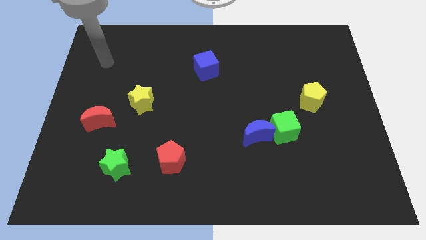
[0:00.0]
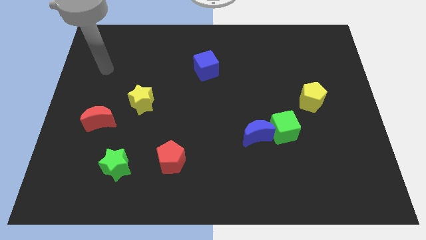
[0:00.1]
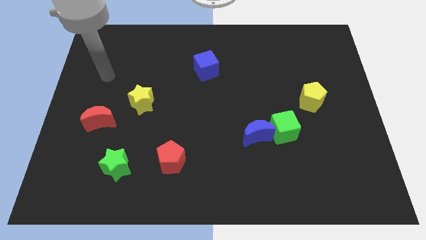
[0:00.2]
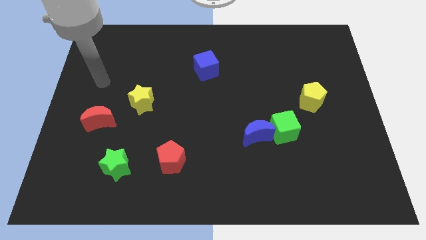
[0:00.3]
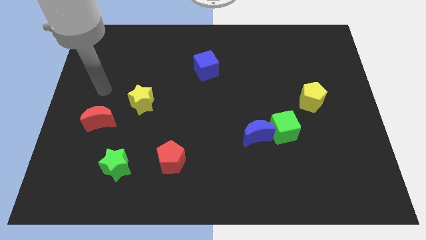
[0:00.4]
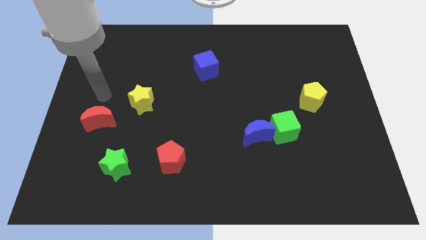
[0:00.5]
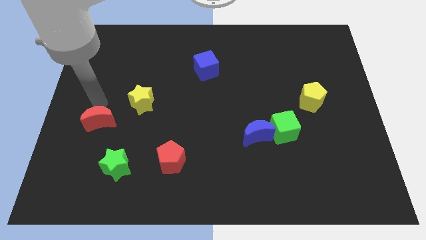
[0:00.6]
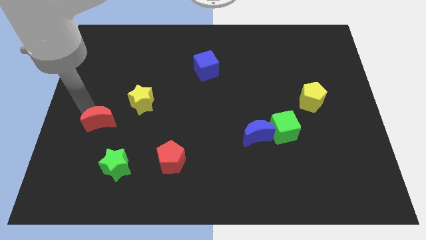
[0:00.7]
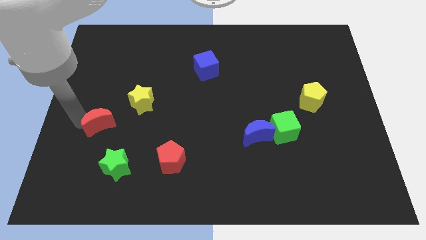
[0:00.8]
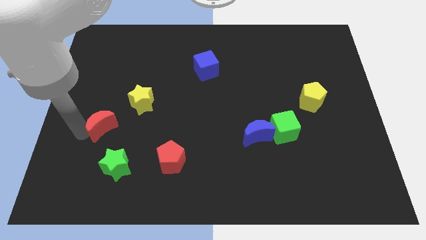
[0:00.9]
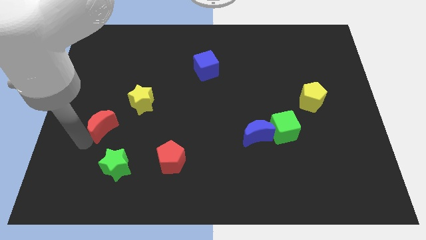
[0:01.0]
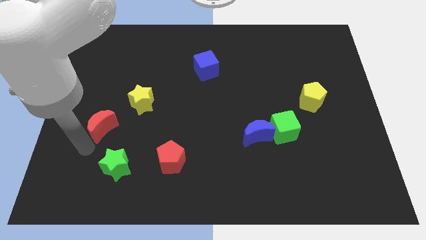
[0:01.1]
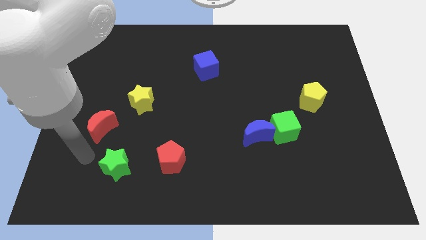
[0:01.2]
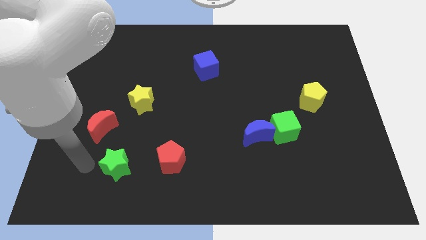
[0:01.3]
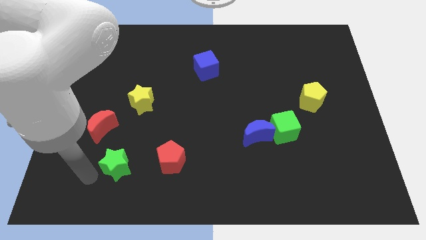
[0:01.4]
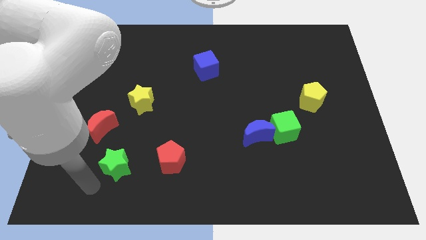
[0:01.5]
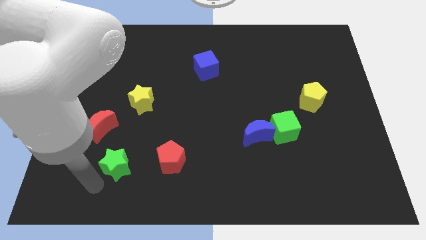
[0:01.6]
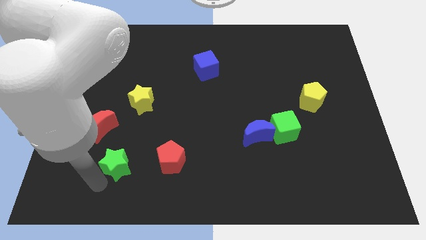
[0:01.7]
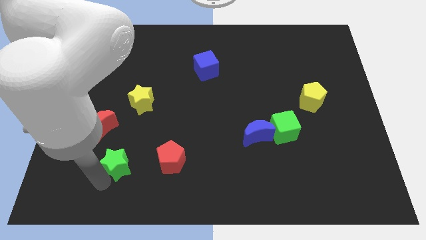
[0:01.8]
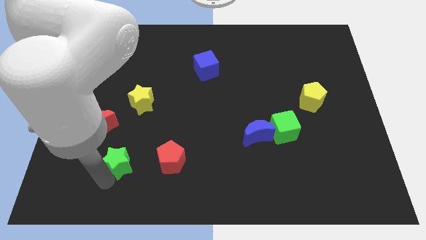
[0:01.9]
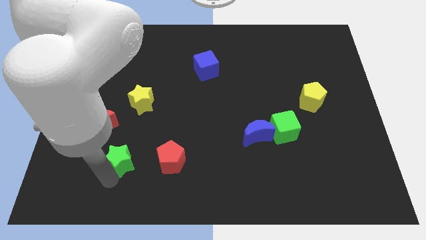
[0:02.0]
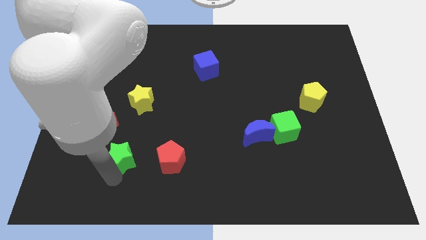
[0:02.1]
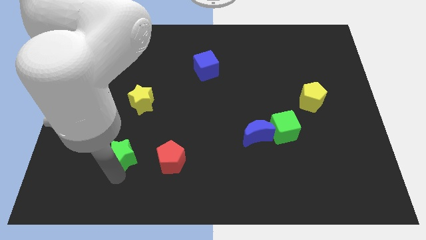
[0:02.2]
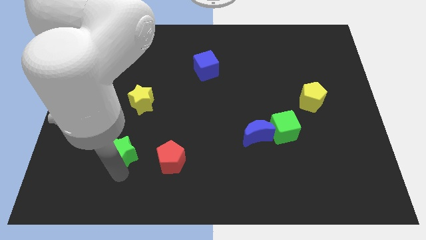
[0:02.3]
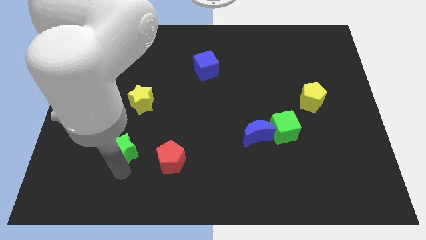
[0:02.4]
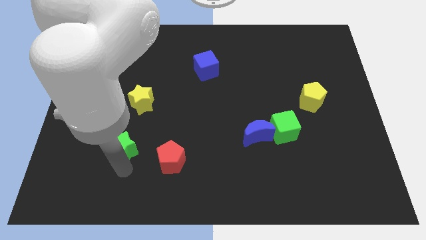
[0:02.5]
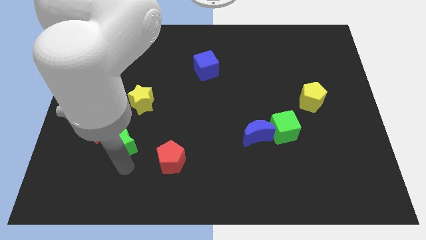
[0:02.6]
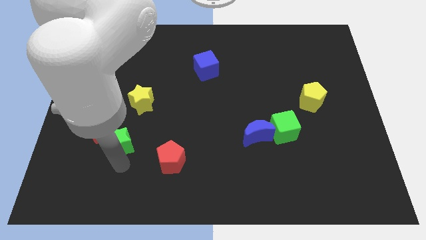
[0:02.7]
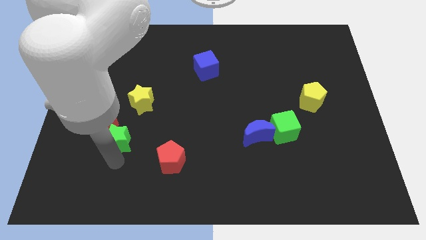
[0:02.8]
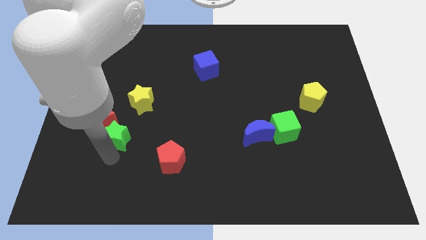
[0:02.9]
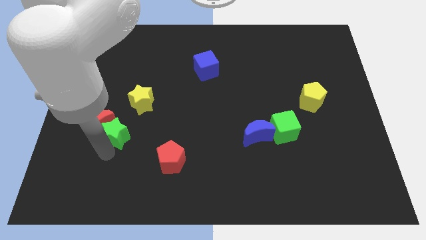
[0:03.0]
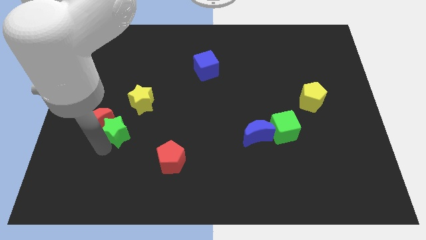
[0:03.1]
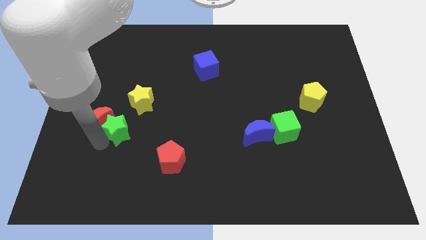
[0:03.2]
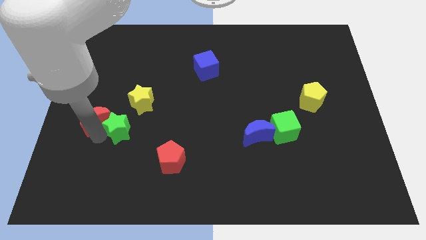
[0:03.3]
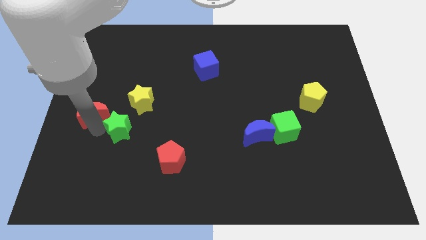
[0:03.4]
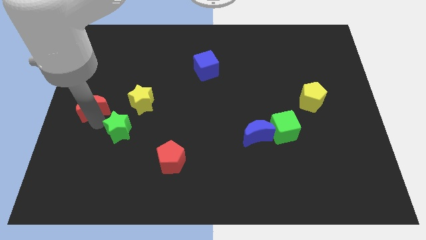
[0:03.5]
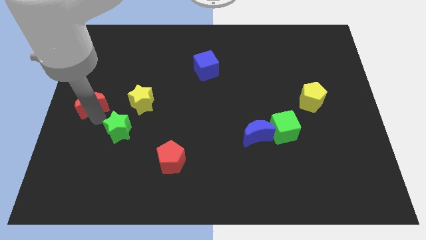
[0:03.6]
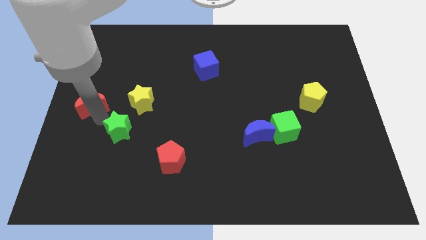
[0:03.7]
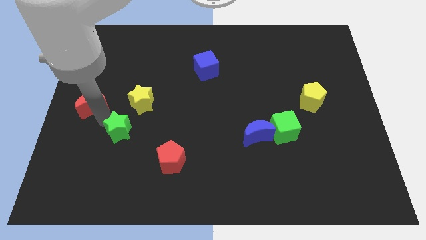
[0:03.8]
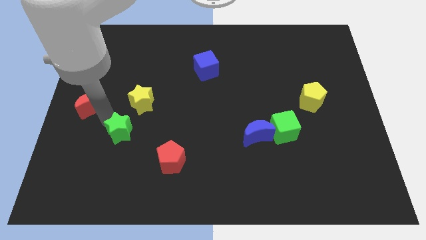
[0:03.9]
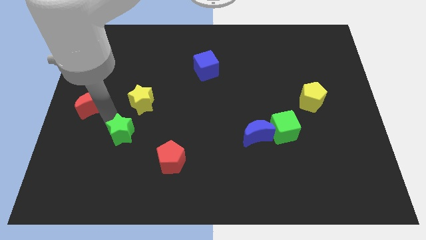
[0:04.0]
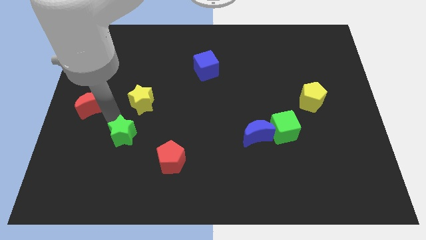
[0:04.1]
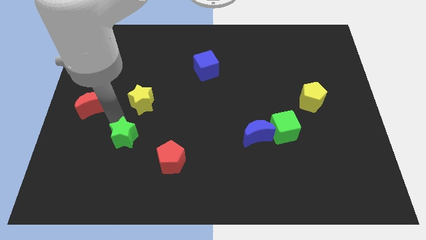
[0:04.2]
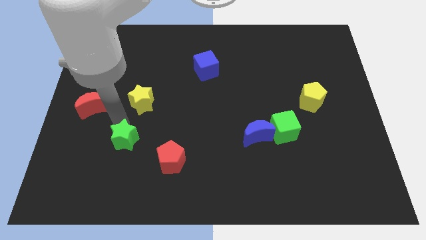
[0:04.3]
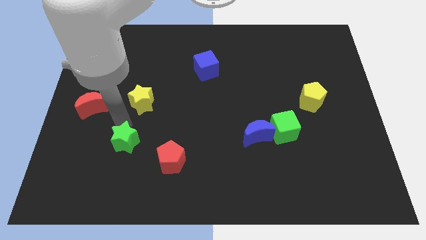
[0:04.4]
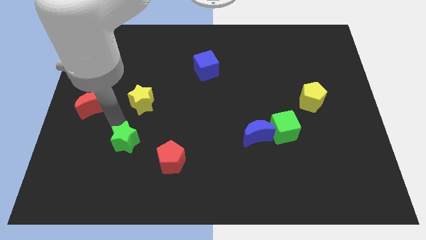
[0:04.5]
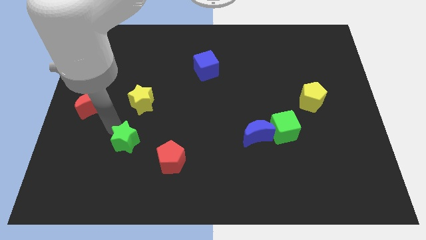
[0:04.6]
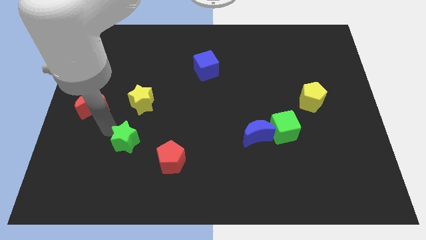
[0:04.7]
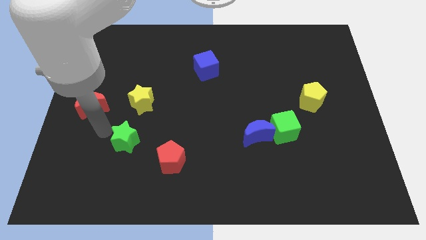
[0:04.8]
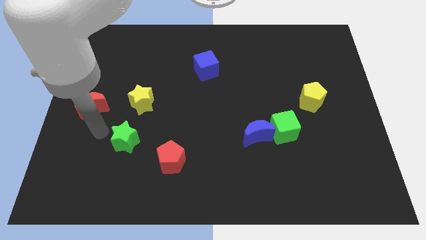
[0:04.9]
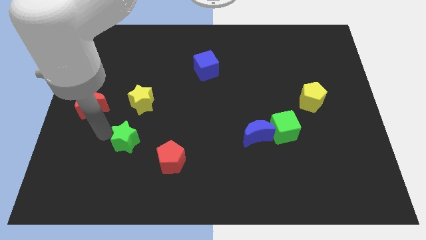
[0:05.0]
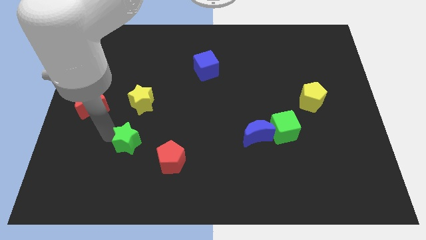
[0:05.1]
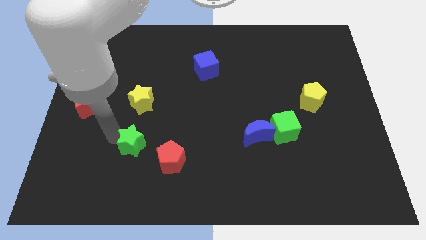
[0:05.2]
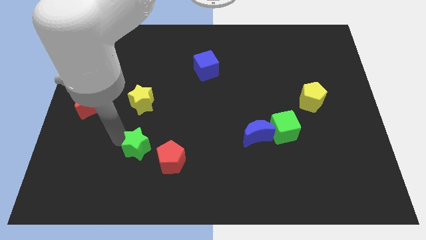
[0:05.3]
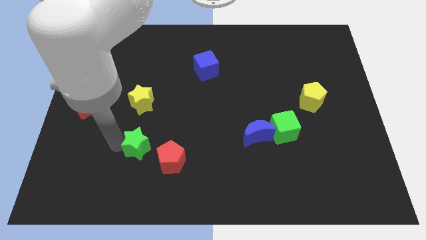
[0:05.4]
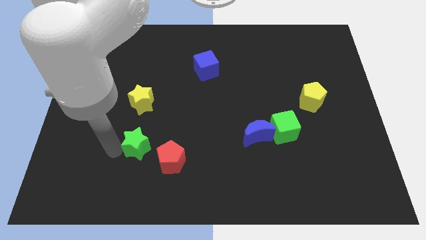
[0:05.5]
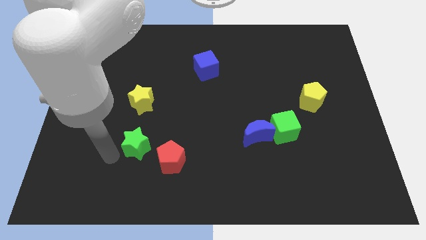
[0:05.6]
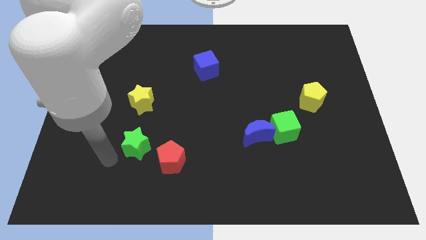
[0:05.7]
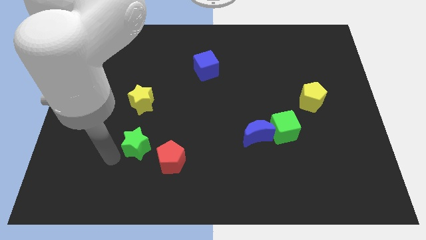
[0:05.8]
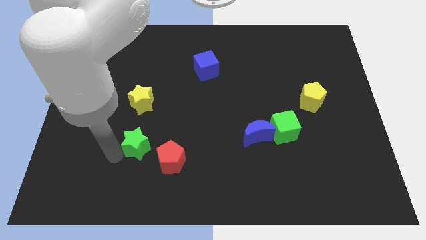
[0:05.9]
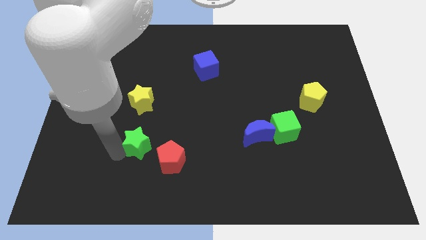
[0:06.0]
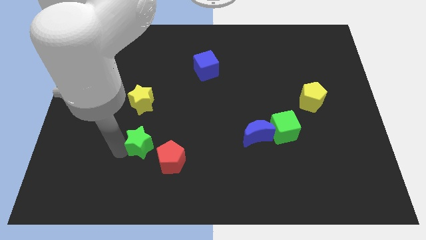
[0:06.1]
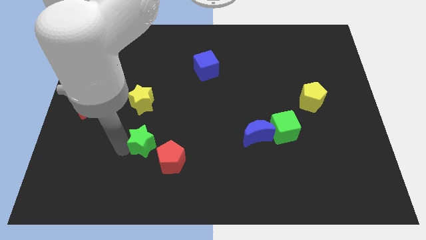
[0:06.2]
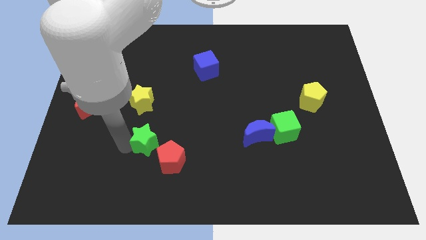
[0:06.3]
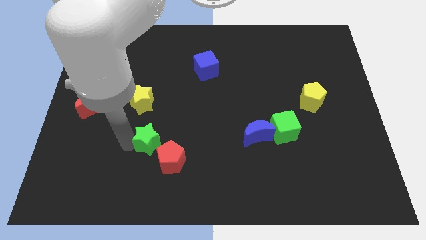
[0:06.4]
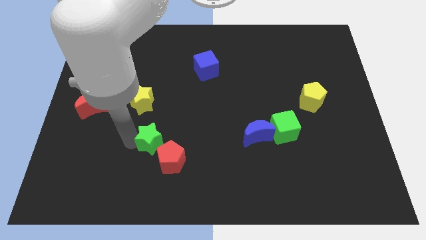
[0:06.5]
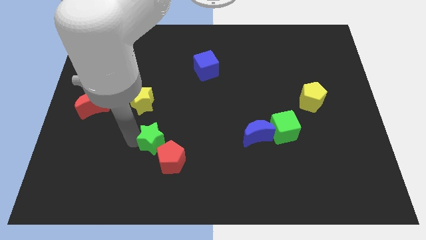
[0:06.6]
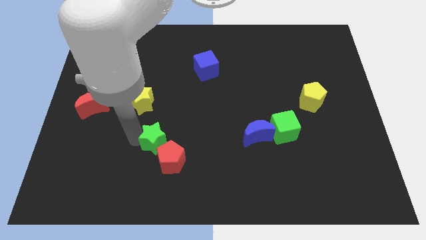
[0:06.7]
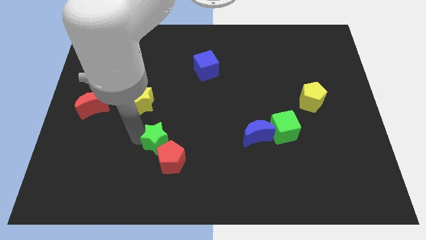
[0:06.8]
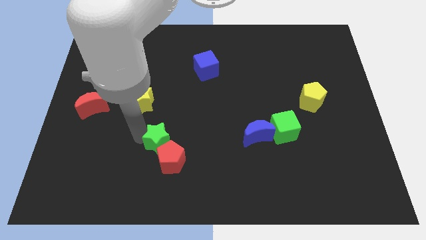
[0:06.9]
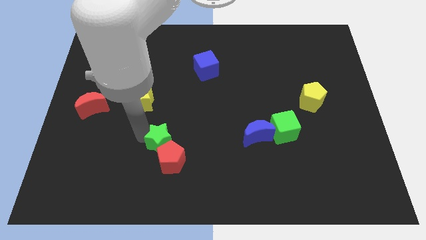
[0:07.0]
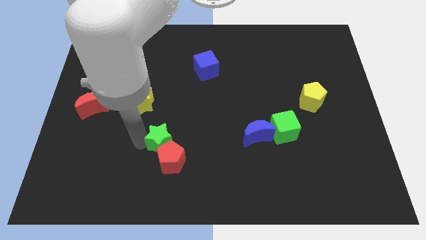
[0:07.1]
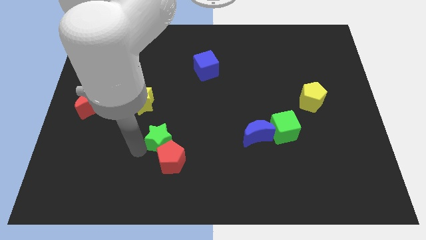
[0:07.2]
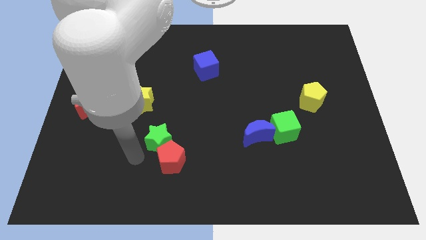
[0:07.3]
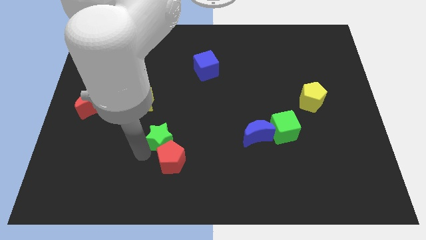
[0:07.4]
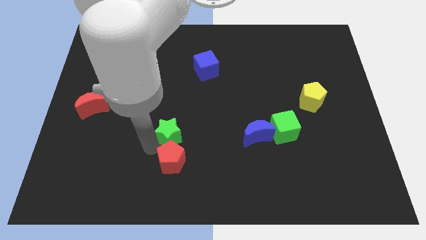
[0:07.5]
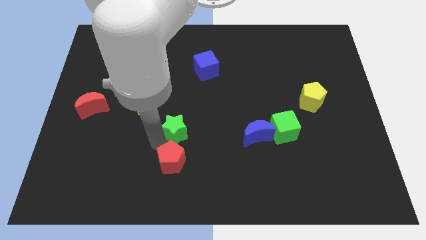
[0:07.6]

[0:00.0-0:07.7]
move the green star to the middle
